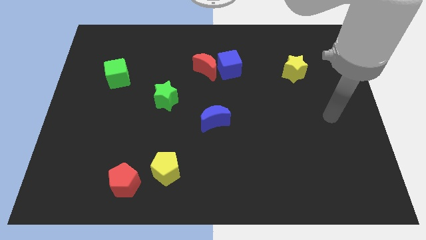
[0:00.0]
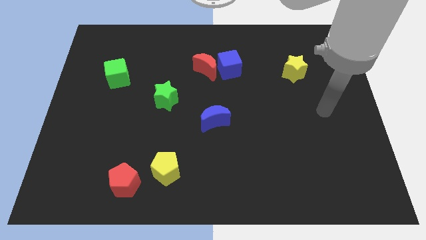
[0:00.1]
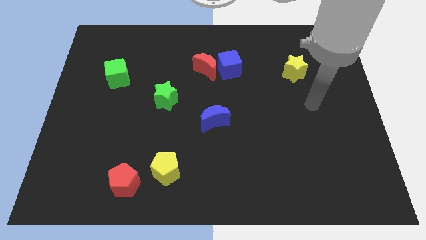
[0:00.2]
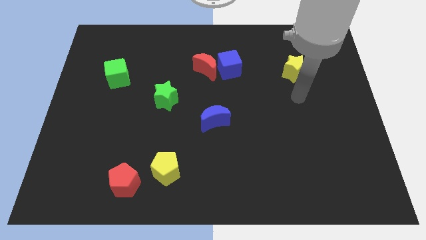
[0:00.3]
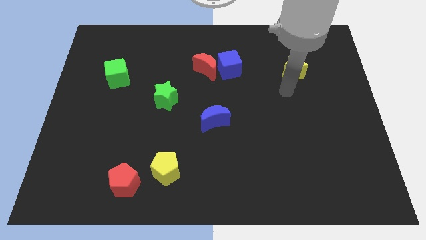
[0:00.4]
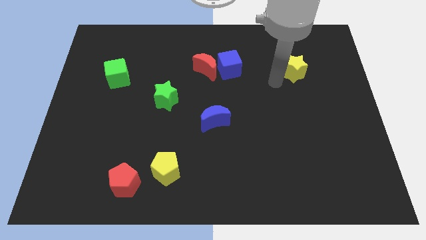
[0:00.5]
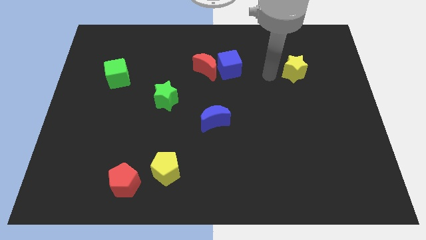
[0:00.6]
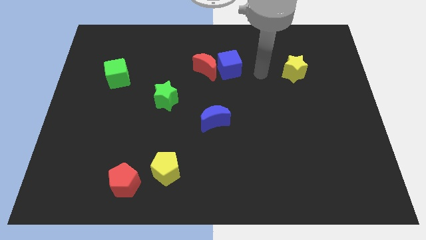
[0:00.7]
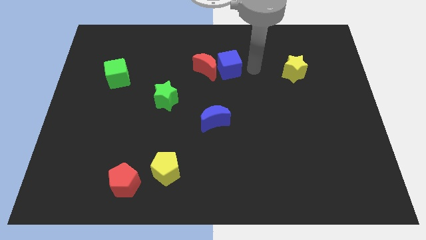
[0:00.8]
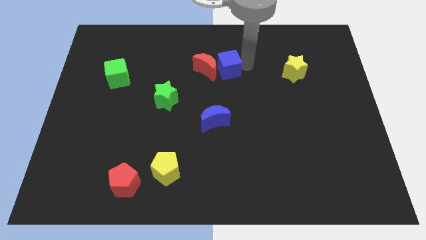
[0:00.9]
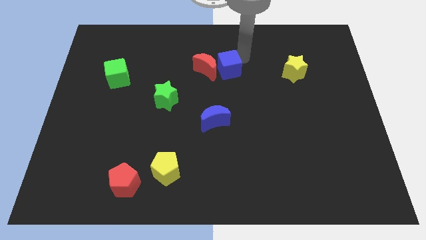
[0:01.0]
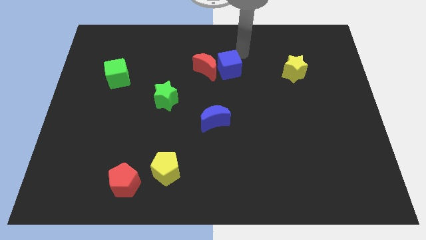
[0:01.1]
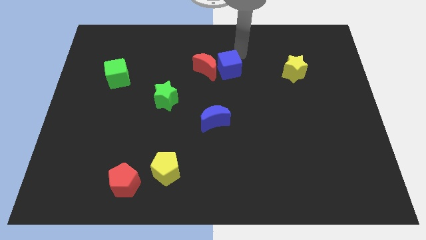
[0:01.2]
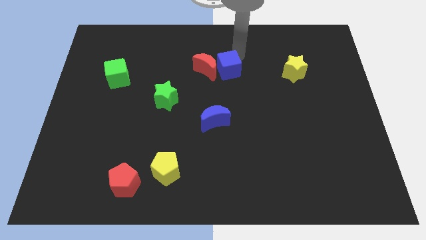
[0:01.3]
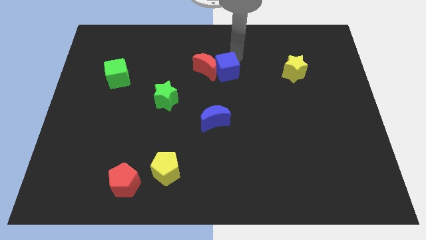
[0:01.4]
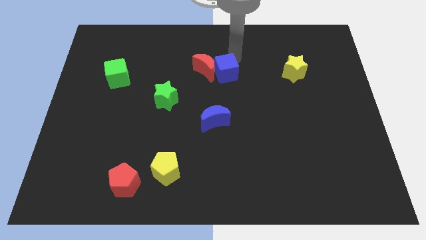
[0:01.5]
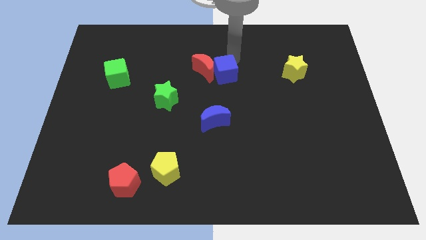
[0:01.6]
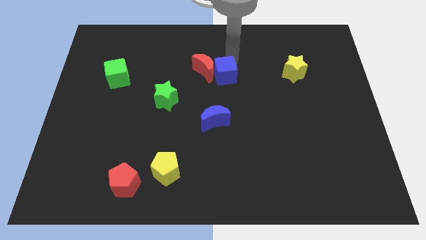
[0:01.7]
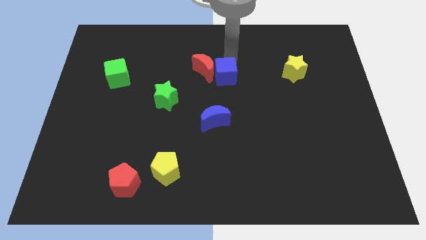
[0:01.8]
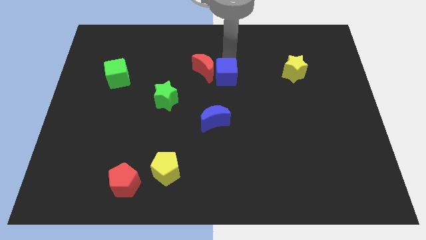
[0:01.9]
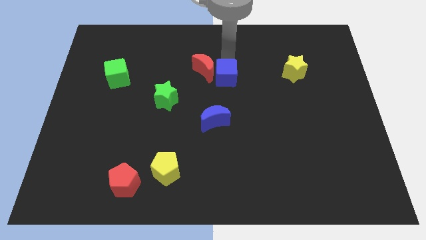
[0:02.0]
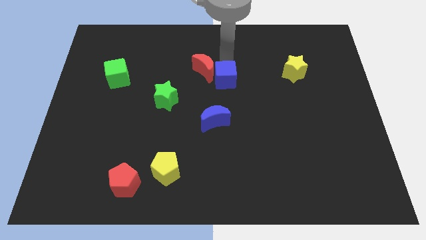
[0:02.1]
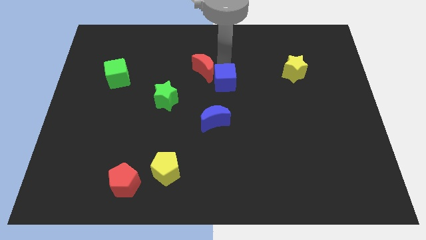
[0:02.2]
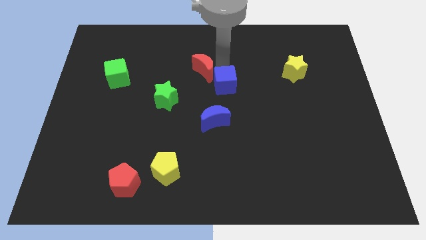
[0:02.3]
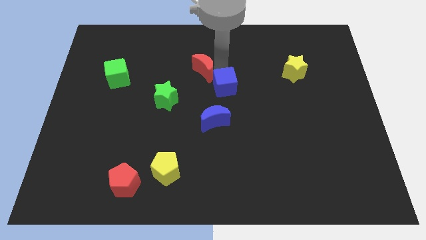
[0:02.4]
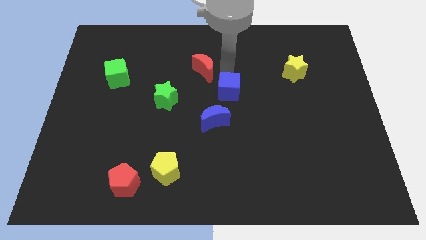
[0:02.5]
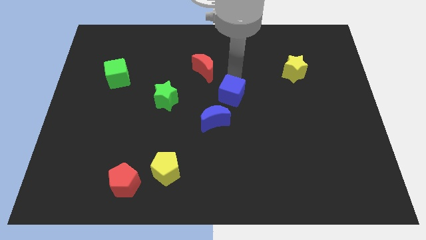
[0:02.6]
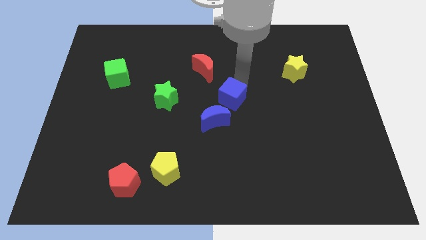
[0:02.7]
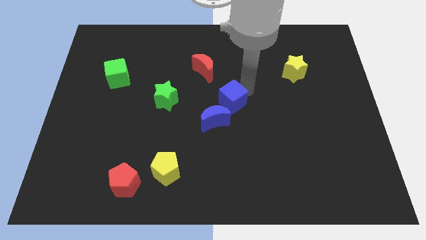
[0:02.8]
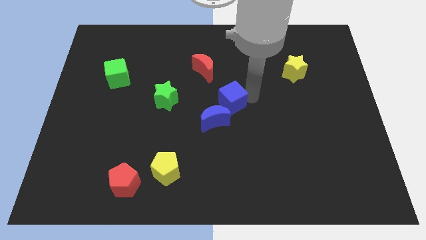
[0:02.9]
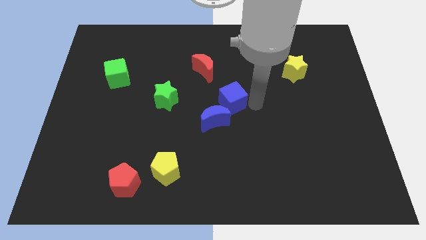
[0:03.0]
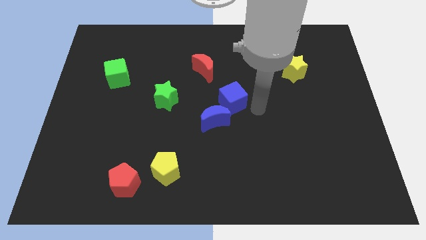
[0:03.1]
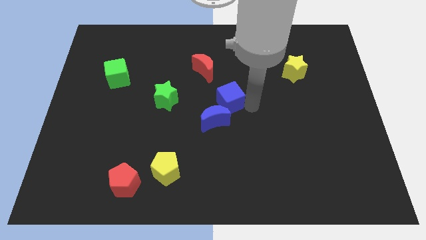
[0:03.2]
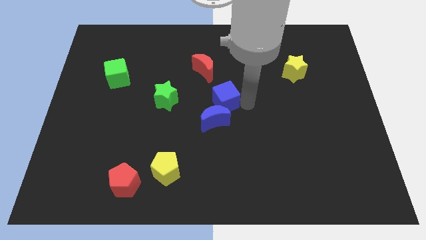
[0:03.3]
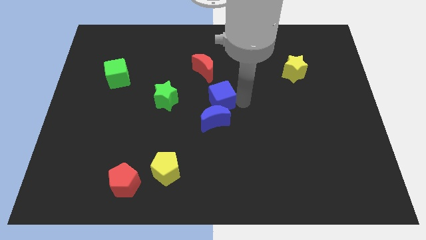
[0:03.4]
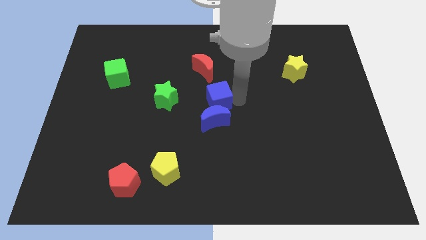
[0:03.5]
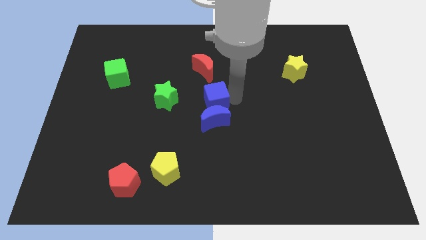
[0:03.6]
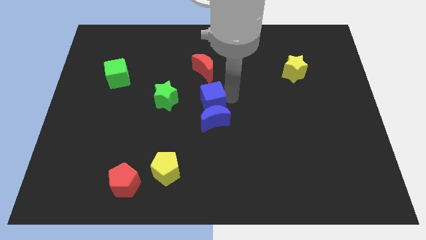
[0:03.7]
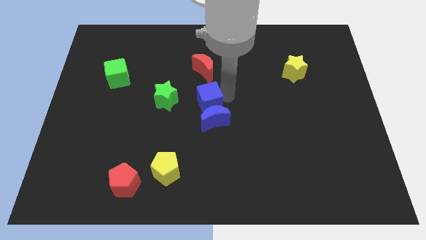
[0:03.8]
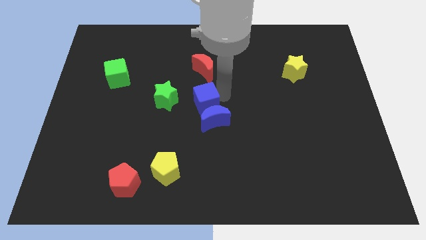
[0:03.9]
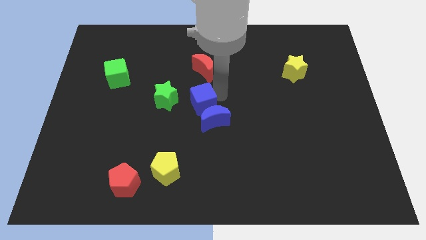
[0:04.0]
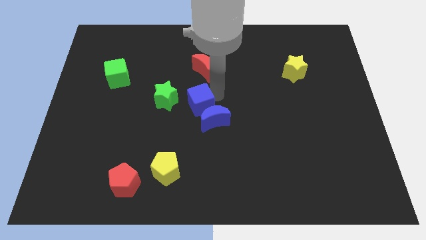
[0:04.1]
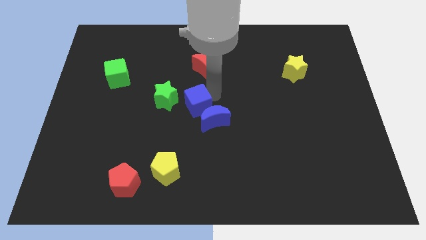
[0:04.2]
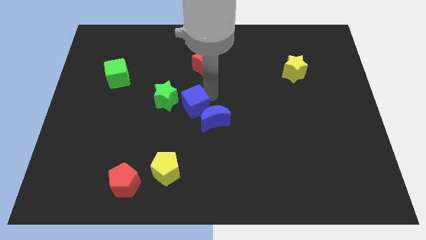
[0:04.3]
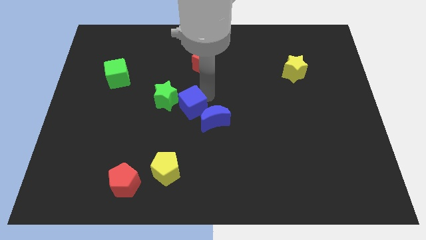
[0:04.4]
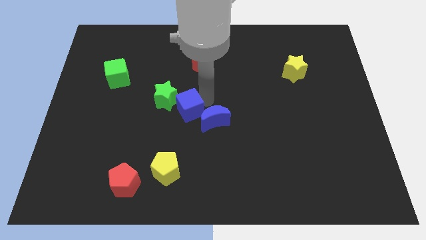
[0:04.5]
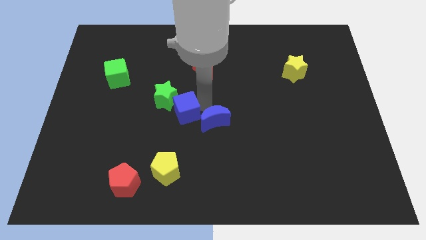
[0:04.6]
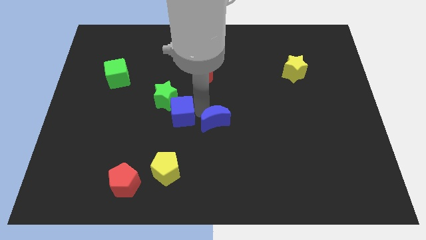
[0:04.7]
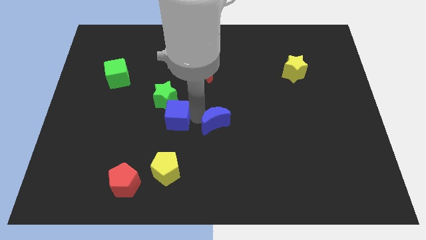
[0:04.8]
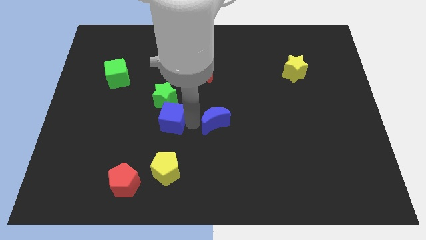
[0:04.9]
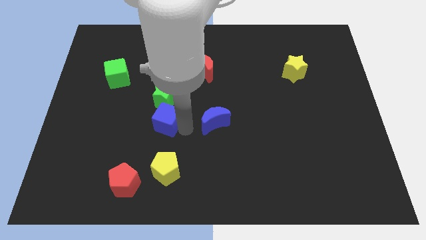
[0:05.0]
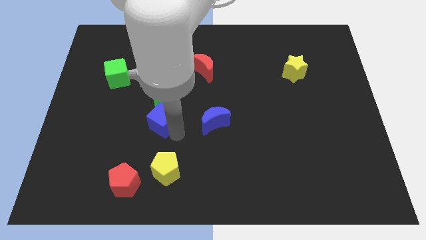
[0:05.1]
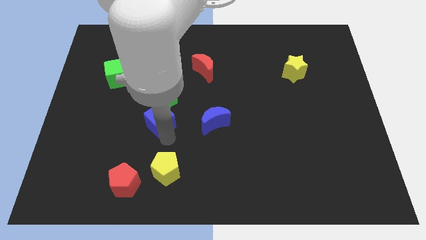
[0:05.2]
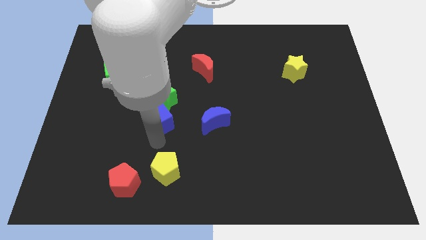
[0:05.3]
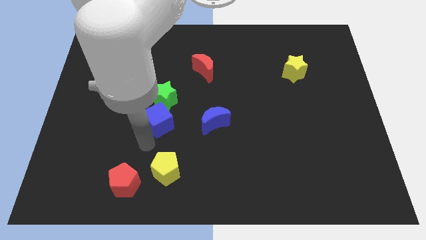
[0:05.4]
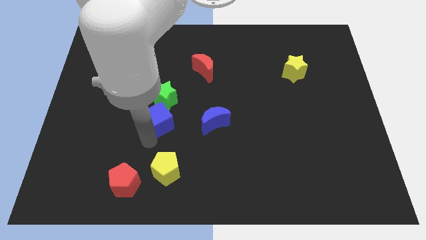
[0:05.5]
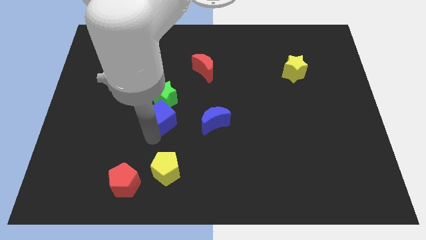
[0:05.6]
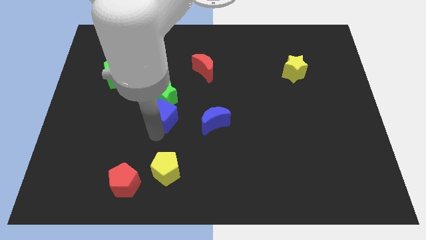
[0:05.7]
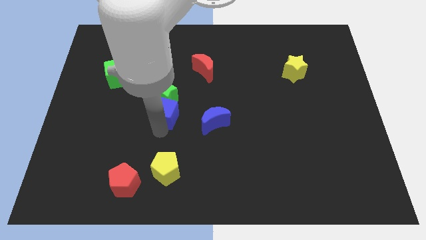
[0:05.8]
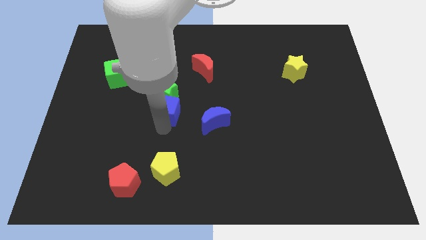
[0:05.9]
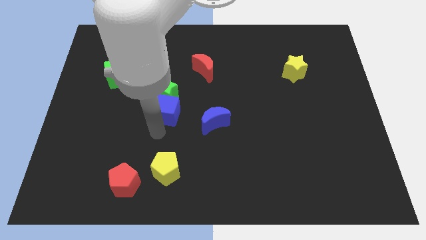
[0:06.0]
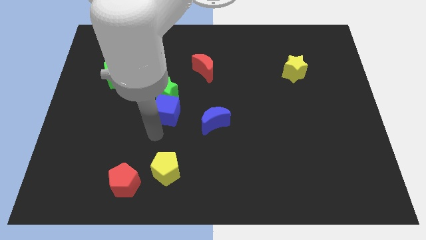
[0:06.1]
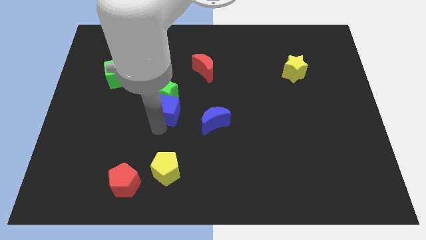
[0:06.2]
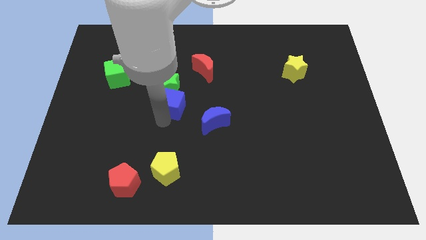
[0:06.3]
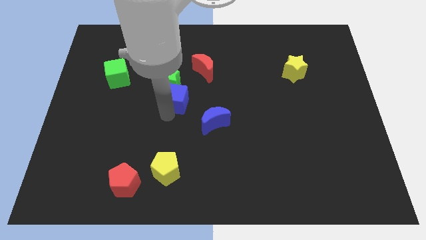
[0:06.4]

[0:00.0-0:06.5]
push the blue cube diagonally down and to the left of the red moon

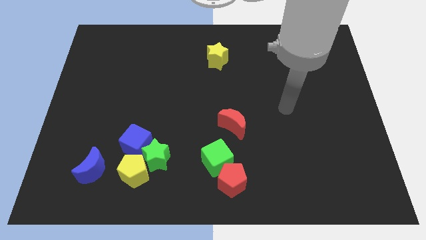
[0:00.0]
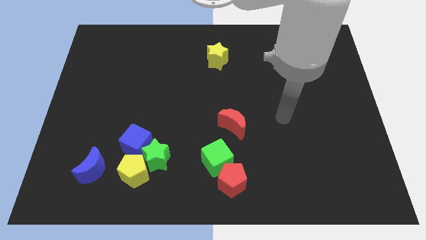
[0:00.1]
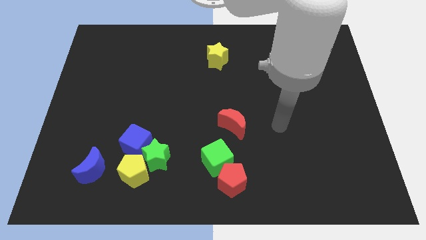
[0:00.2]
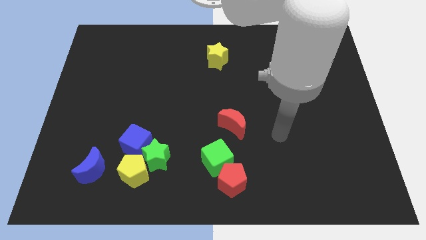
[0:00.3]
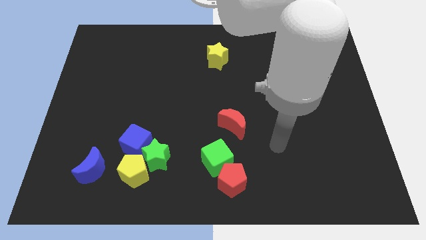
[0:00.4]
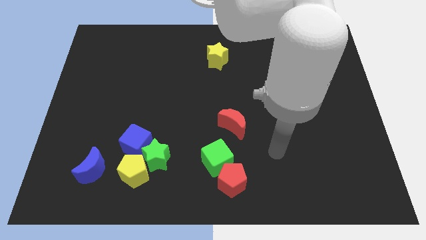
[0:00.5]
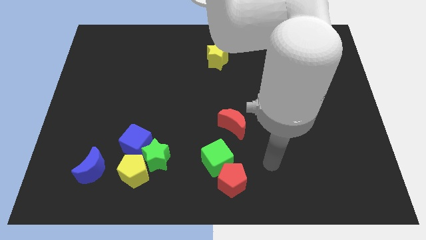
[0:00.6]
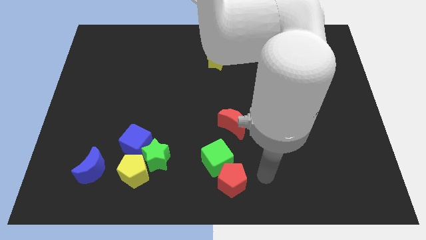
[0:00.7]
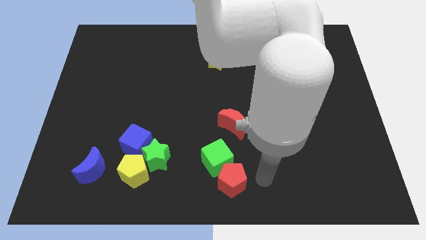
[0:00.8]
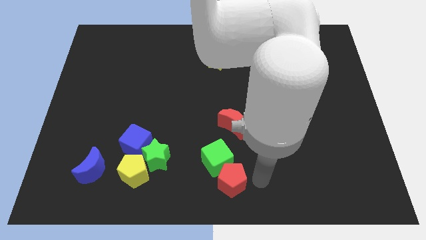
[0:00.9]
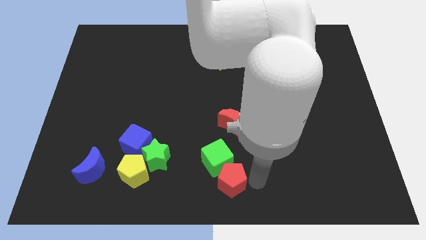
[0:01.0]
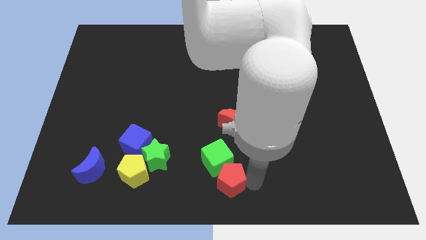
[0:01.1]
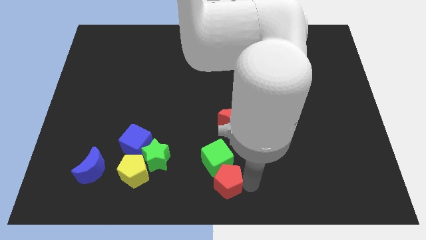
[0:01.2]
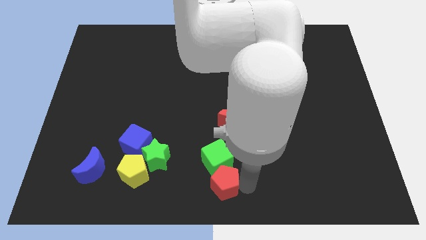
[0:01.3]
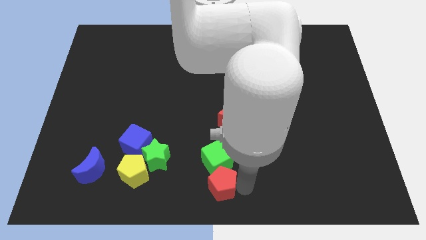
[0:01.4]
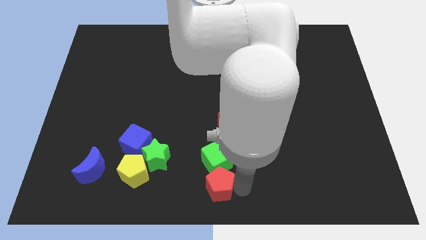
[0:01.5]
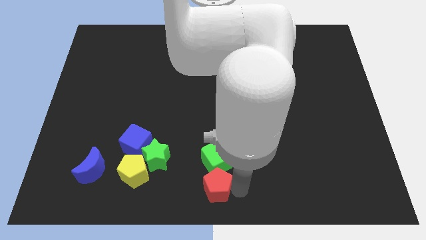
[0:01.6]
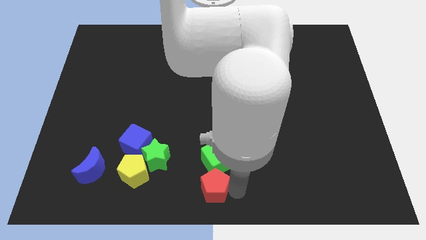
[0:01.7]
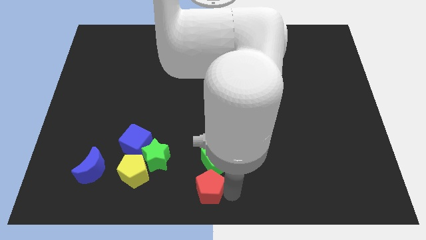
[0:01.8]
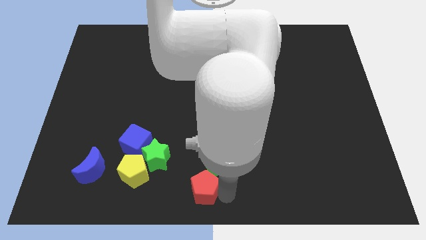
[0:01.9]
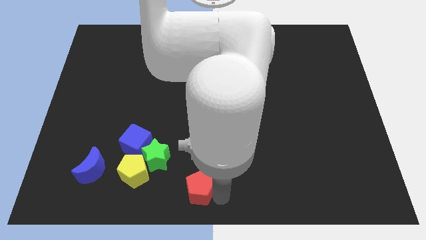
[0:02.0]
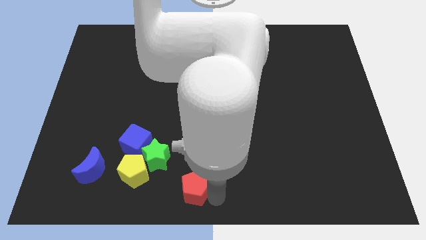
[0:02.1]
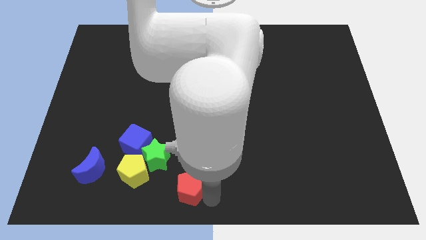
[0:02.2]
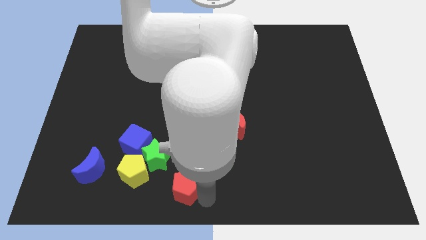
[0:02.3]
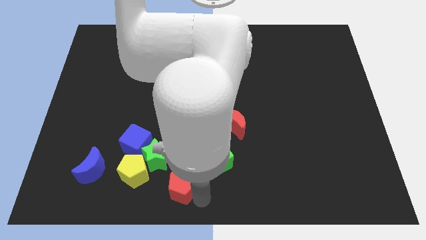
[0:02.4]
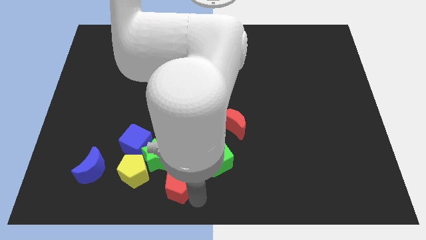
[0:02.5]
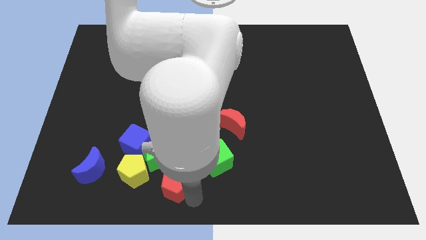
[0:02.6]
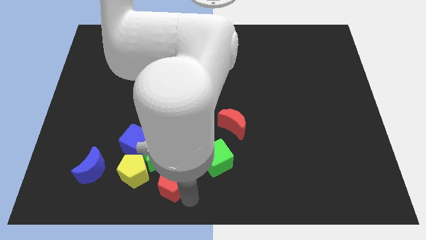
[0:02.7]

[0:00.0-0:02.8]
slide the red pentagon to the bottom right side of the blue cube
